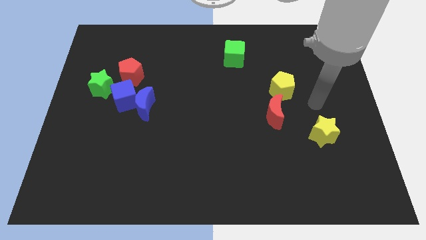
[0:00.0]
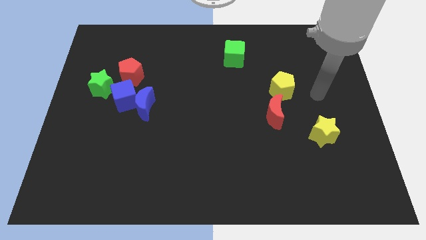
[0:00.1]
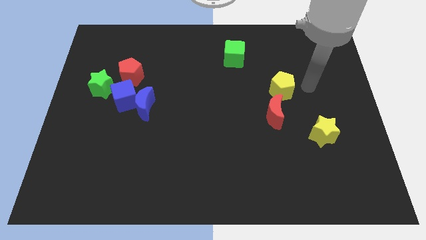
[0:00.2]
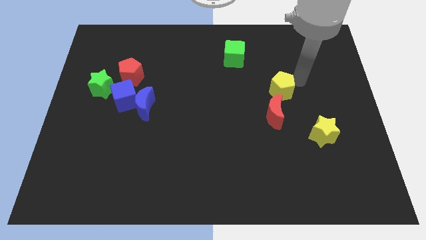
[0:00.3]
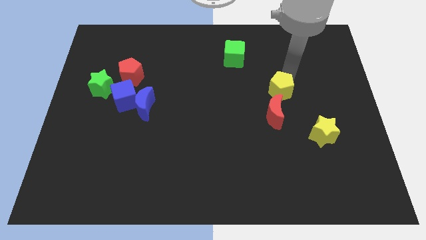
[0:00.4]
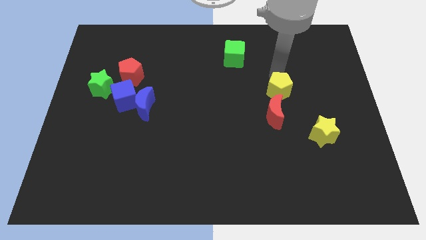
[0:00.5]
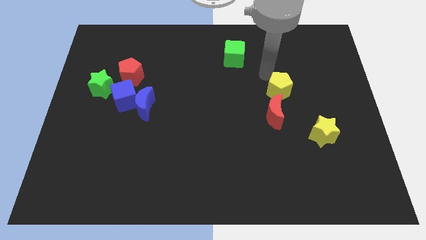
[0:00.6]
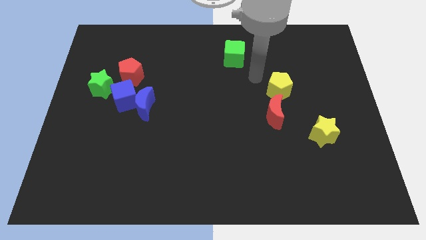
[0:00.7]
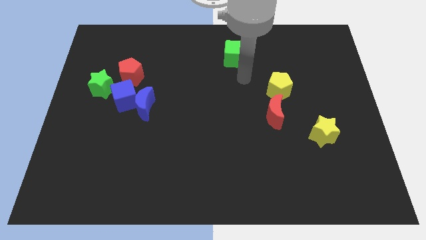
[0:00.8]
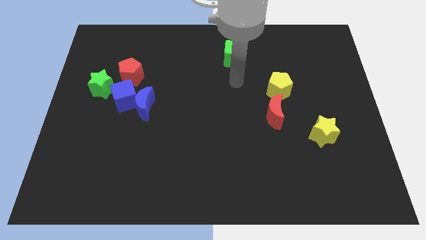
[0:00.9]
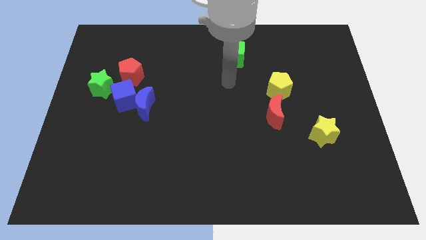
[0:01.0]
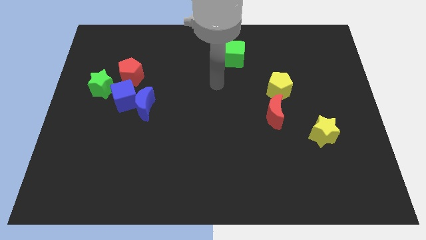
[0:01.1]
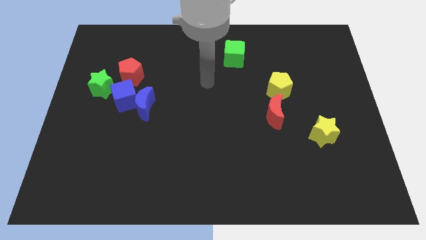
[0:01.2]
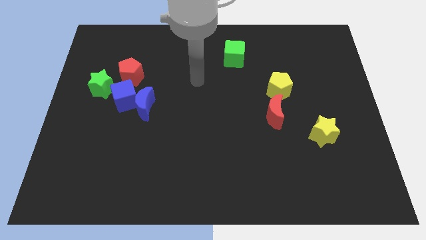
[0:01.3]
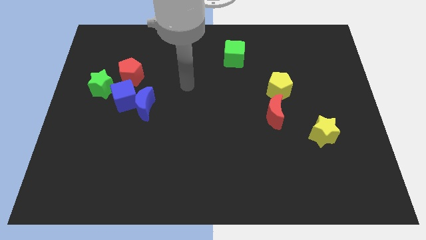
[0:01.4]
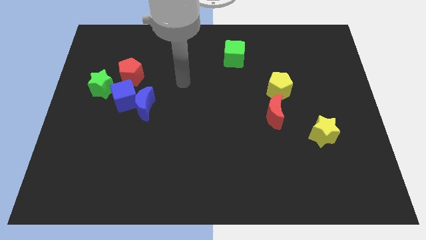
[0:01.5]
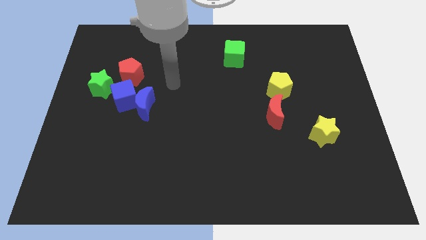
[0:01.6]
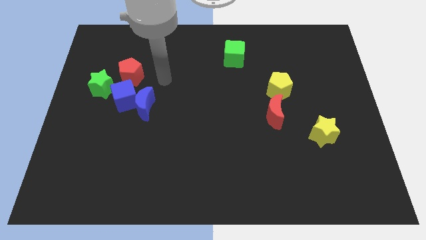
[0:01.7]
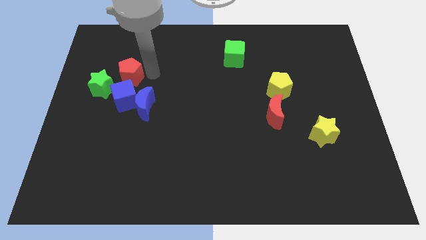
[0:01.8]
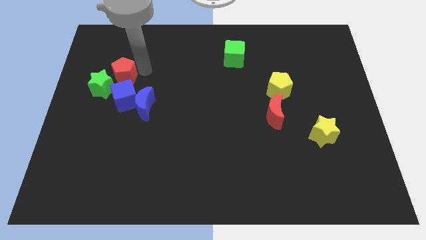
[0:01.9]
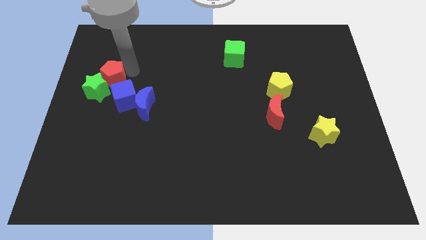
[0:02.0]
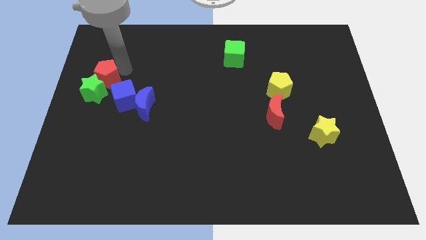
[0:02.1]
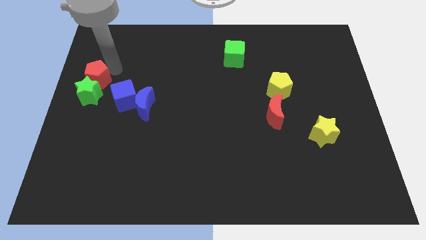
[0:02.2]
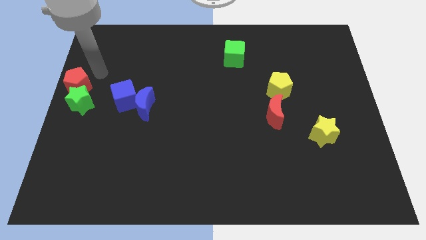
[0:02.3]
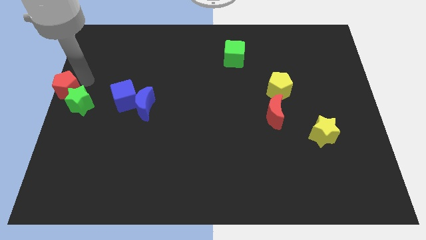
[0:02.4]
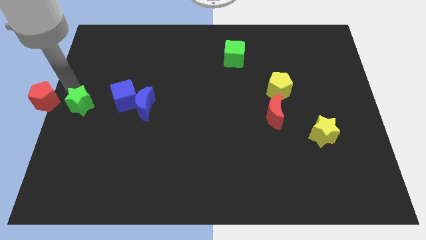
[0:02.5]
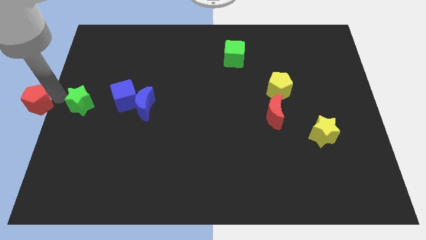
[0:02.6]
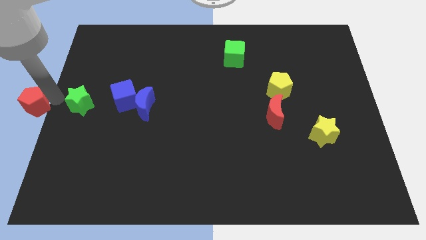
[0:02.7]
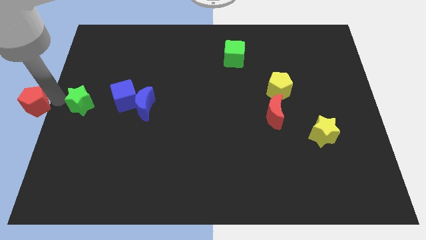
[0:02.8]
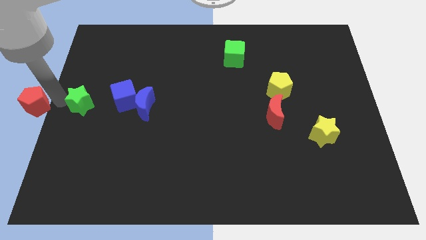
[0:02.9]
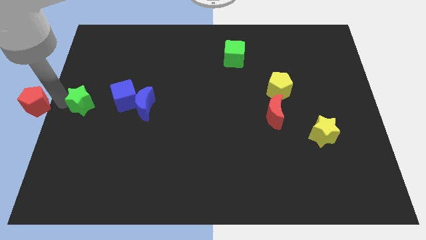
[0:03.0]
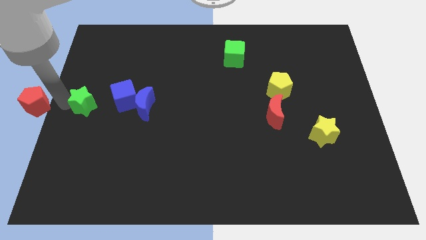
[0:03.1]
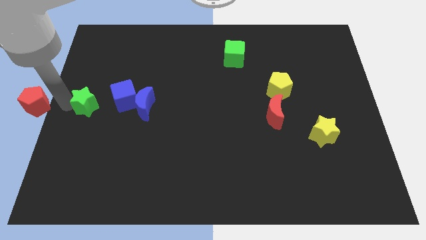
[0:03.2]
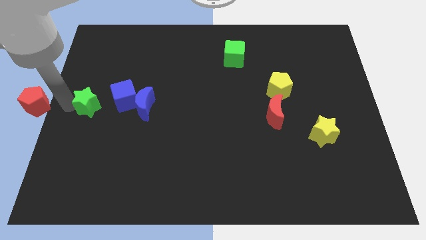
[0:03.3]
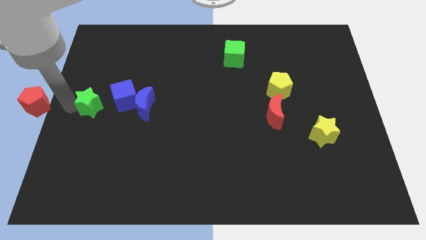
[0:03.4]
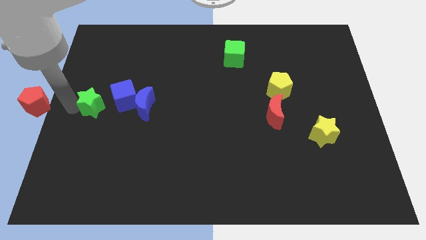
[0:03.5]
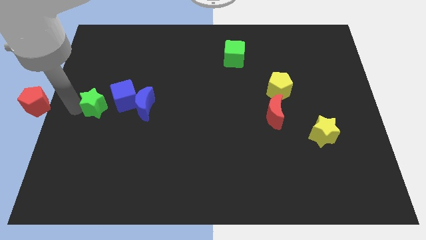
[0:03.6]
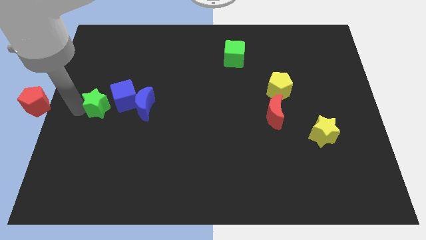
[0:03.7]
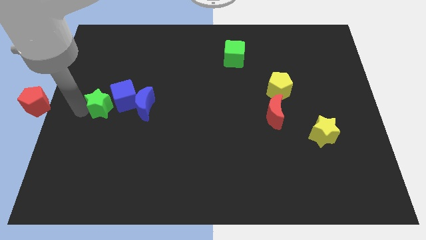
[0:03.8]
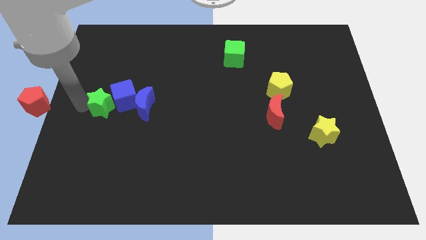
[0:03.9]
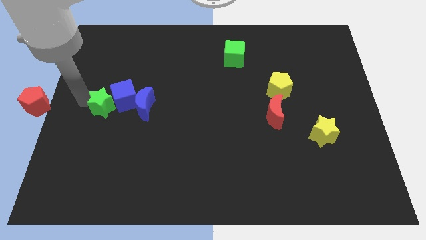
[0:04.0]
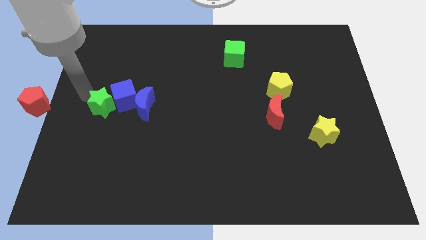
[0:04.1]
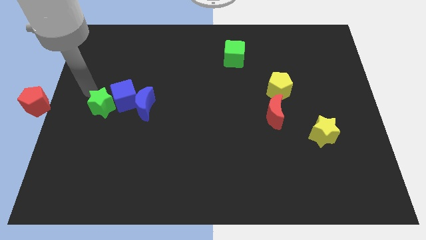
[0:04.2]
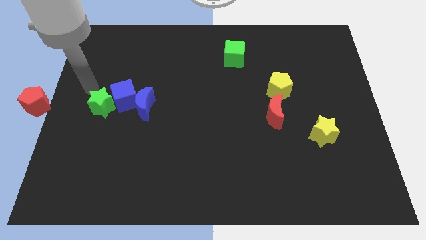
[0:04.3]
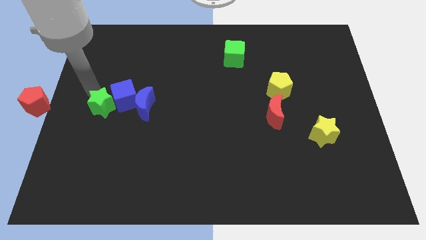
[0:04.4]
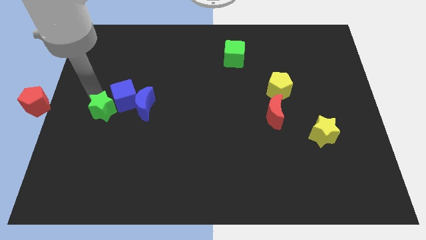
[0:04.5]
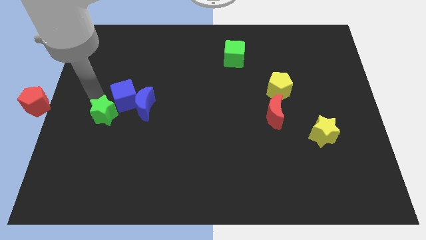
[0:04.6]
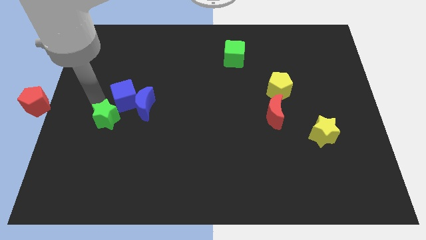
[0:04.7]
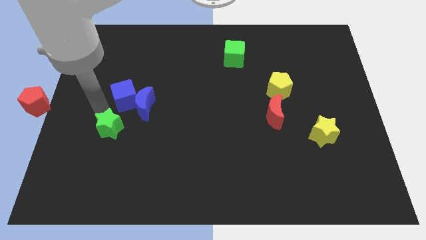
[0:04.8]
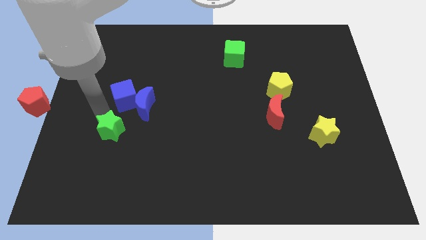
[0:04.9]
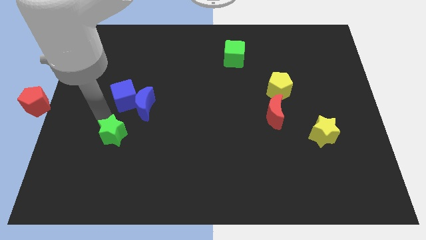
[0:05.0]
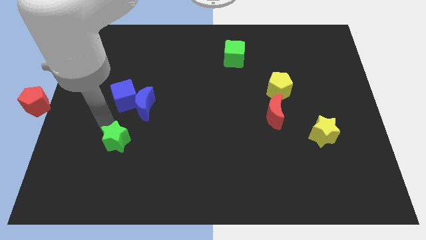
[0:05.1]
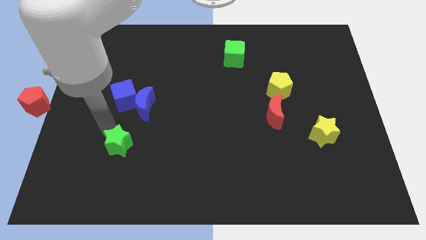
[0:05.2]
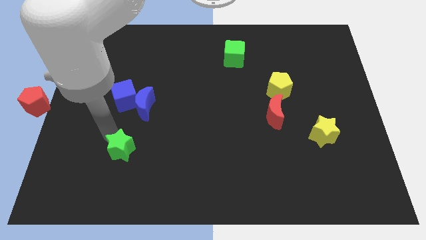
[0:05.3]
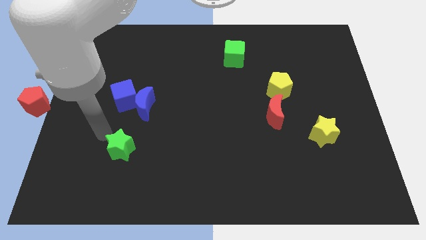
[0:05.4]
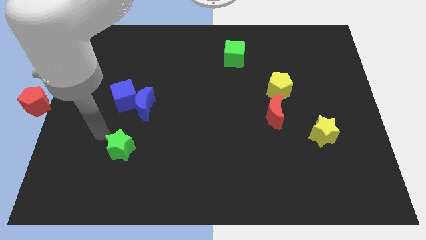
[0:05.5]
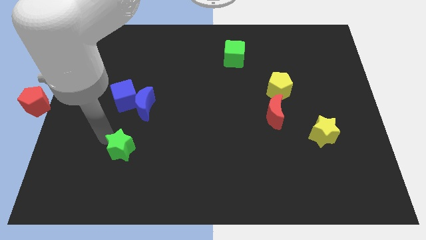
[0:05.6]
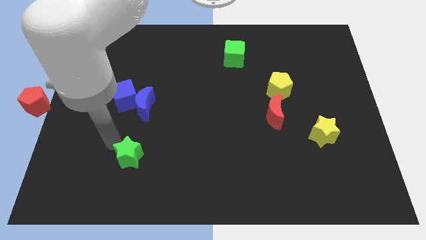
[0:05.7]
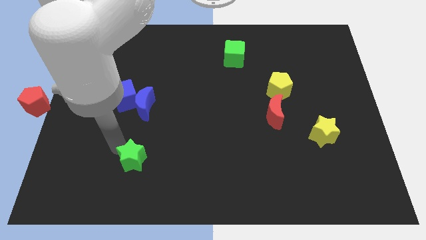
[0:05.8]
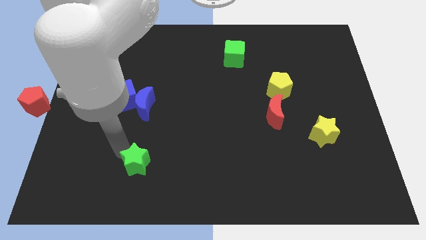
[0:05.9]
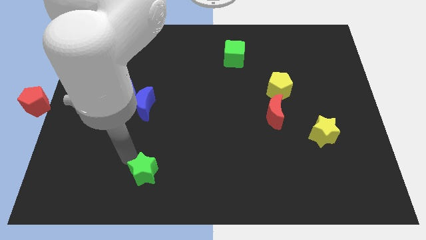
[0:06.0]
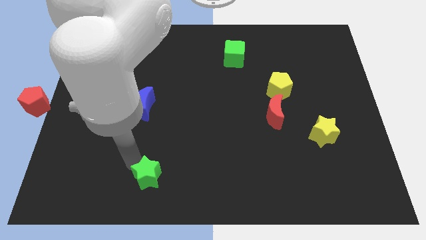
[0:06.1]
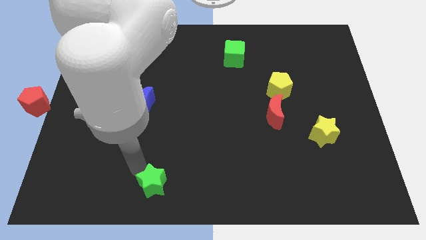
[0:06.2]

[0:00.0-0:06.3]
push the green star to the bottom side

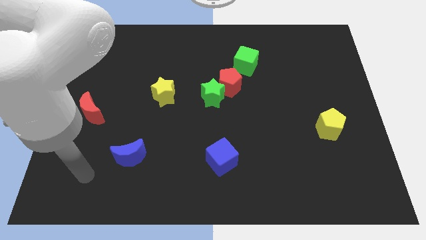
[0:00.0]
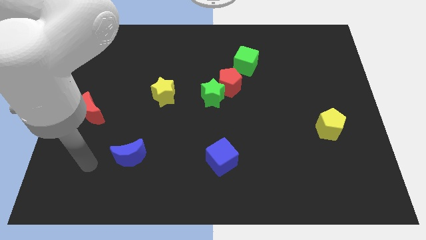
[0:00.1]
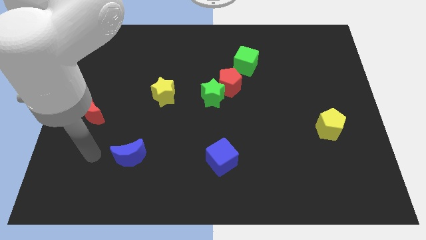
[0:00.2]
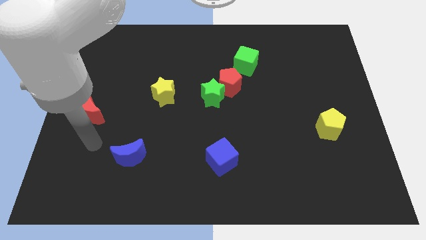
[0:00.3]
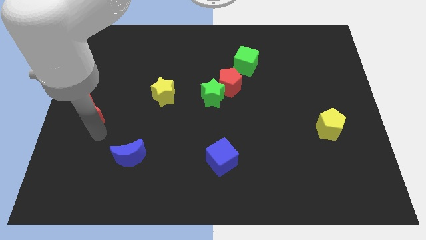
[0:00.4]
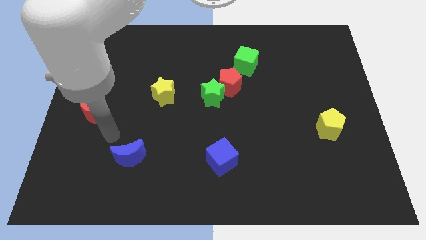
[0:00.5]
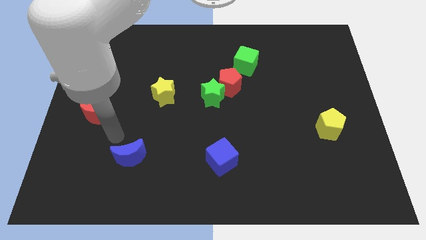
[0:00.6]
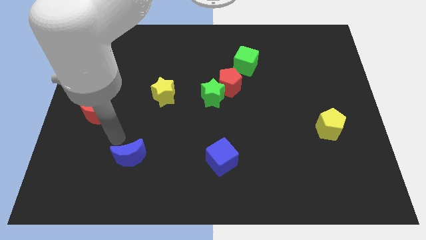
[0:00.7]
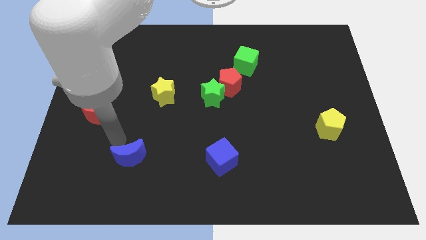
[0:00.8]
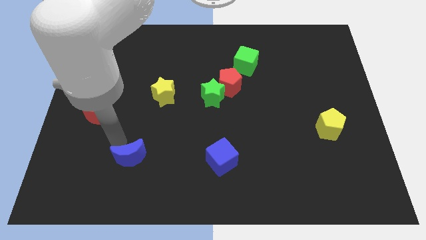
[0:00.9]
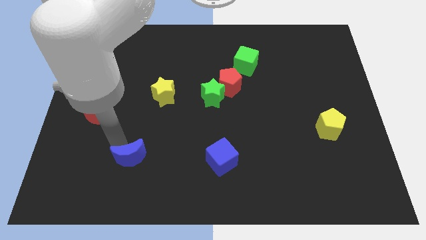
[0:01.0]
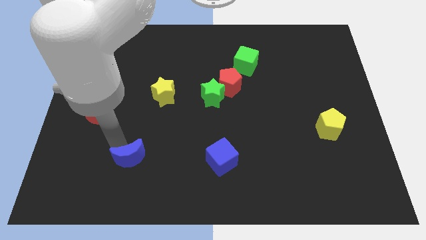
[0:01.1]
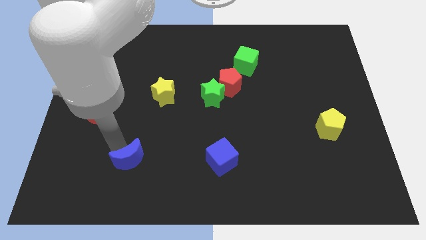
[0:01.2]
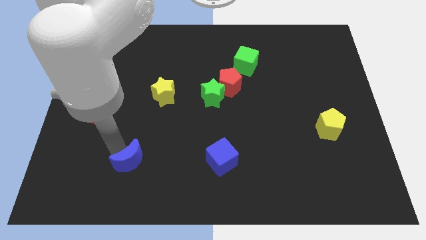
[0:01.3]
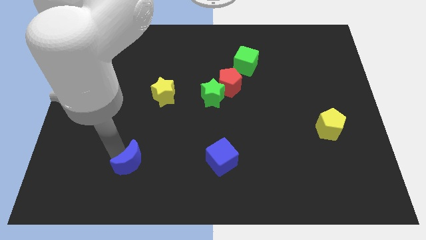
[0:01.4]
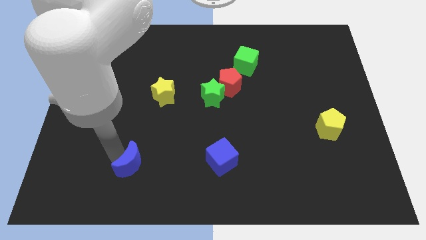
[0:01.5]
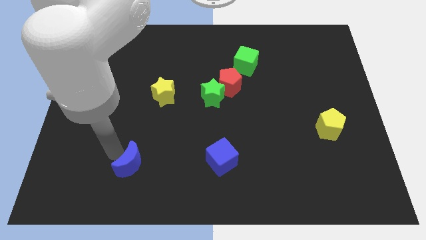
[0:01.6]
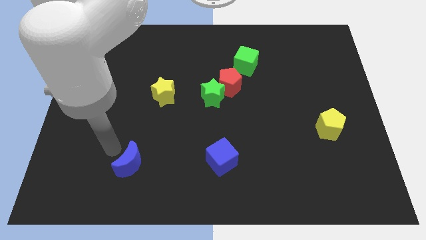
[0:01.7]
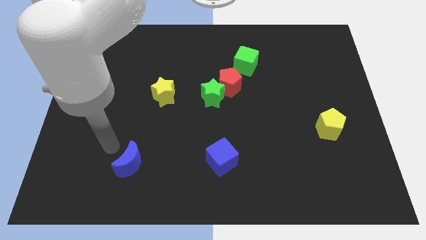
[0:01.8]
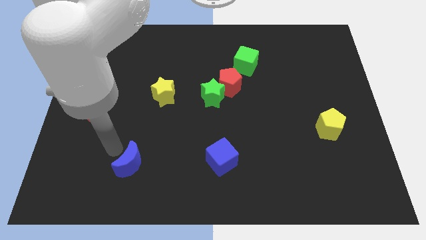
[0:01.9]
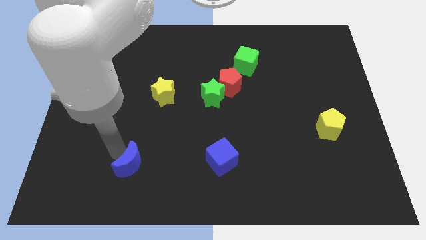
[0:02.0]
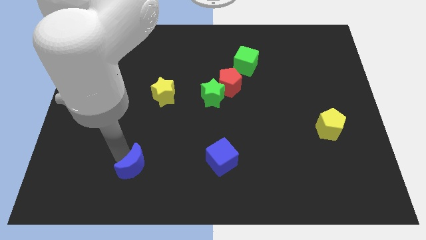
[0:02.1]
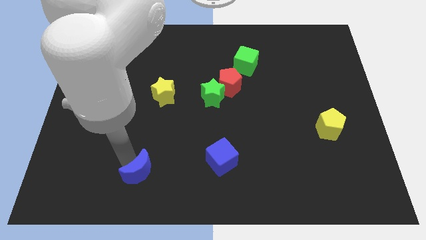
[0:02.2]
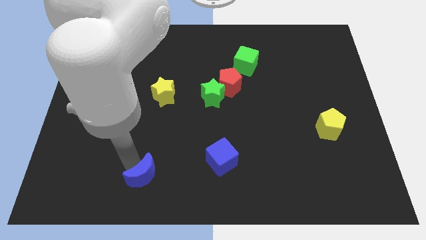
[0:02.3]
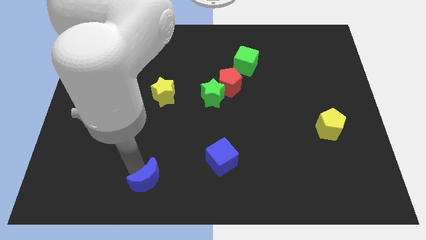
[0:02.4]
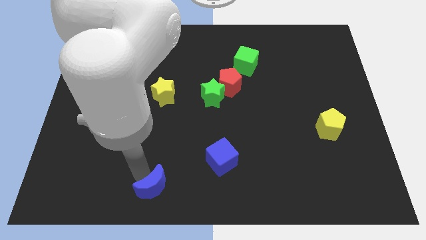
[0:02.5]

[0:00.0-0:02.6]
move the blue moon to the bottom
